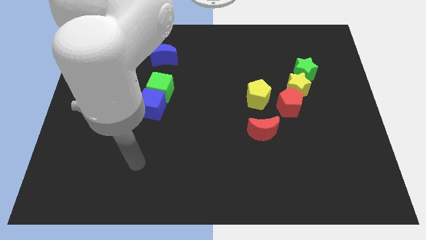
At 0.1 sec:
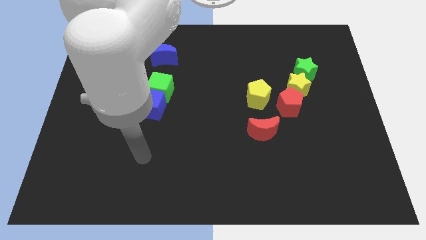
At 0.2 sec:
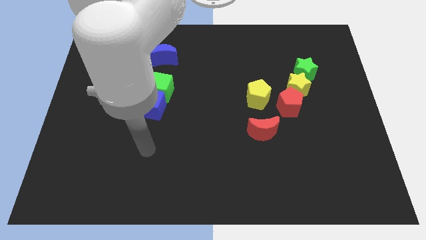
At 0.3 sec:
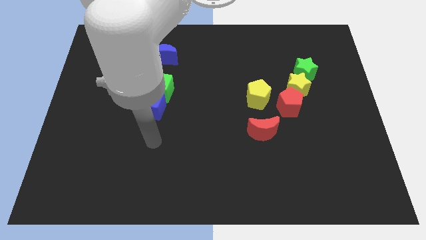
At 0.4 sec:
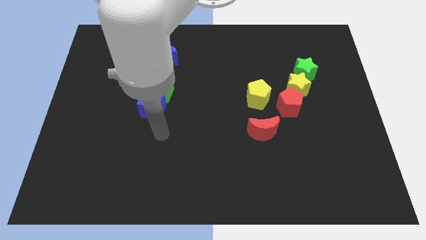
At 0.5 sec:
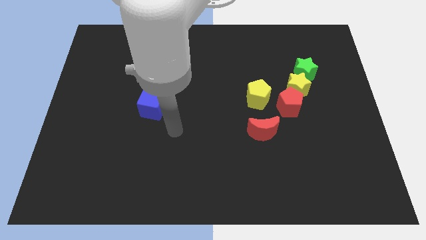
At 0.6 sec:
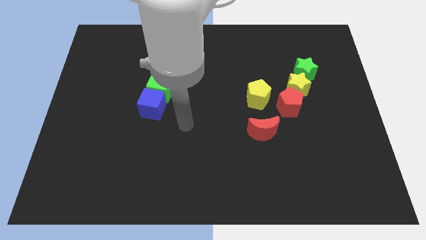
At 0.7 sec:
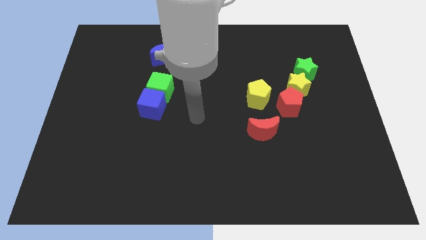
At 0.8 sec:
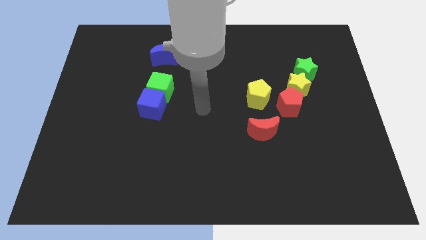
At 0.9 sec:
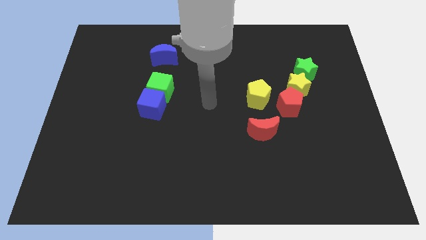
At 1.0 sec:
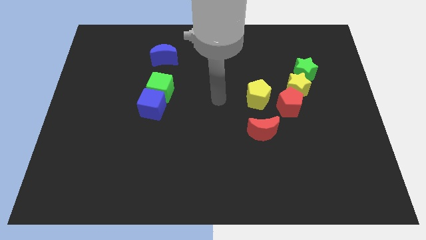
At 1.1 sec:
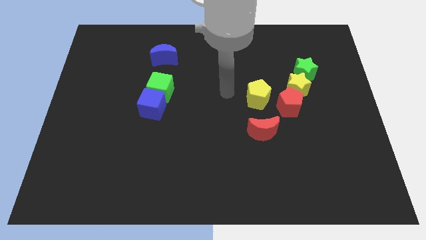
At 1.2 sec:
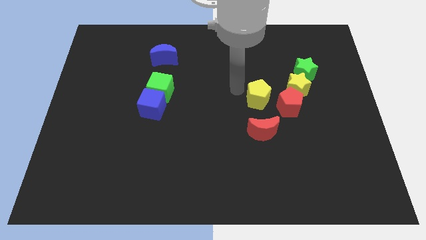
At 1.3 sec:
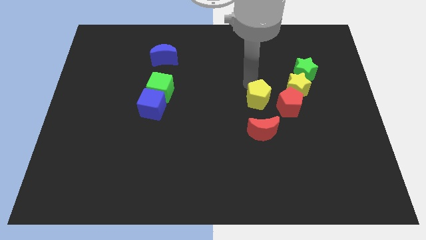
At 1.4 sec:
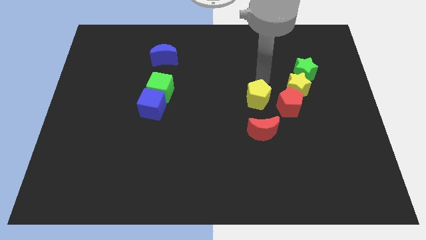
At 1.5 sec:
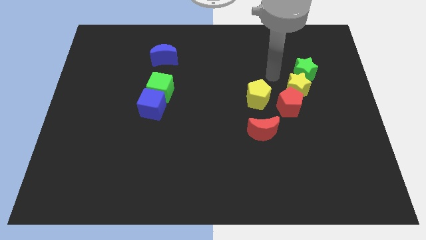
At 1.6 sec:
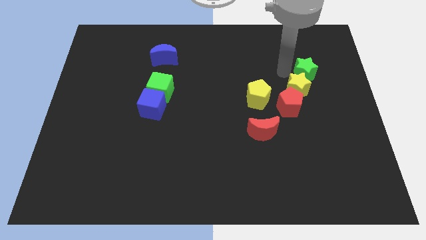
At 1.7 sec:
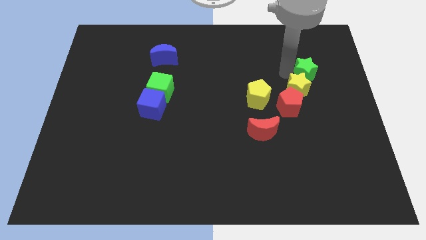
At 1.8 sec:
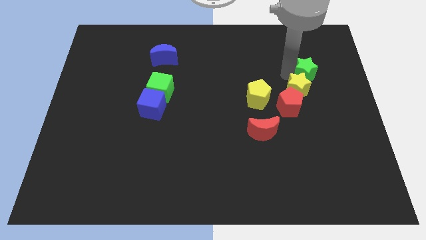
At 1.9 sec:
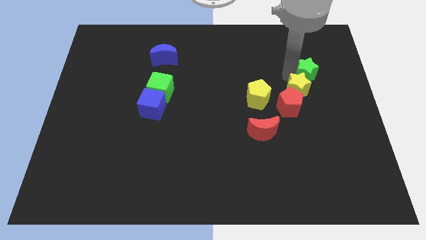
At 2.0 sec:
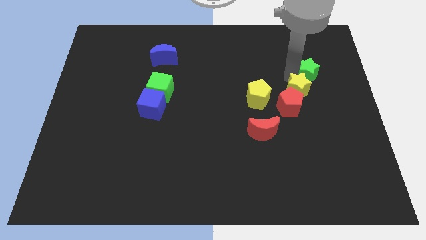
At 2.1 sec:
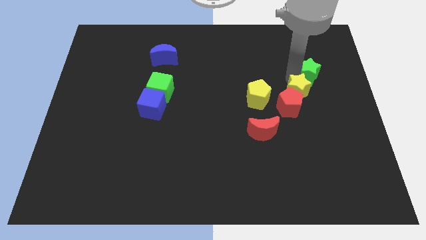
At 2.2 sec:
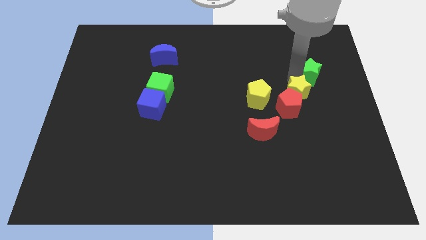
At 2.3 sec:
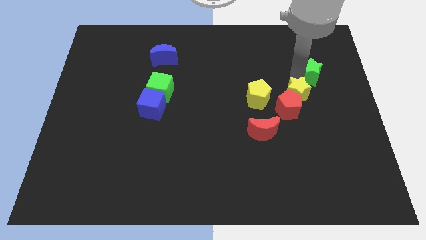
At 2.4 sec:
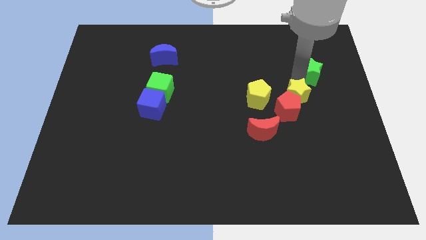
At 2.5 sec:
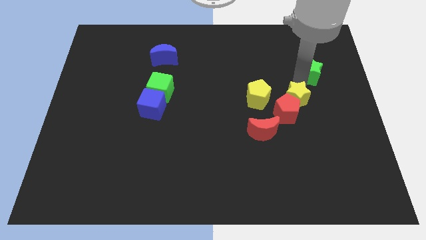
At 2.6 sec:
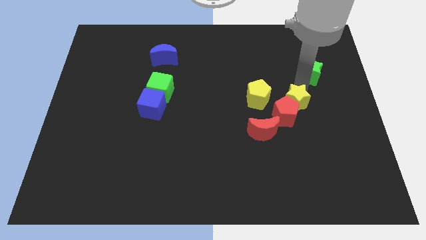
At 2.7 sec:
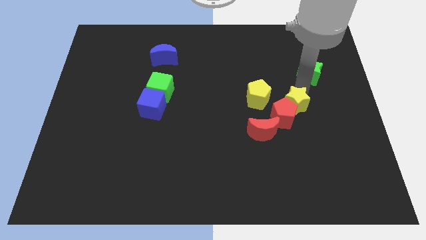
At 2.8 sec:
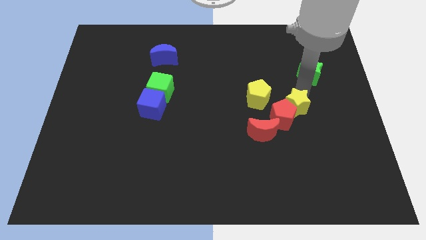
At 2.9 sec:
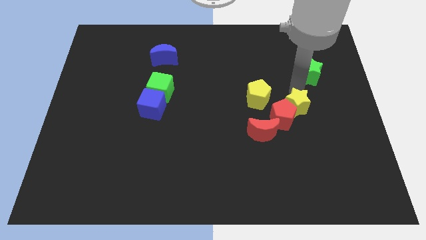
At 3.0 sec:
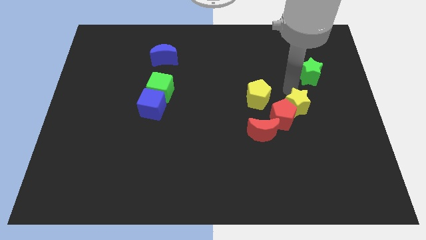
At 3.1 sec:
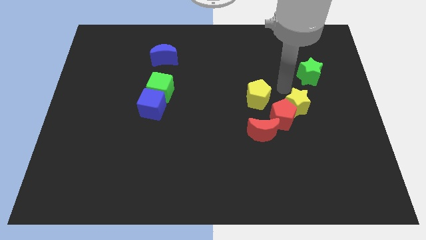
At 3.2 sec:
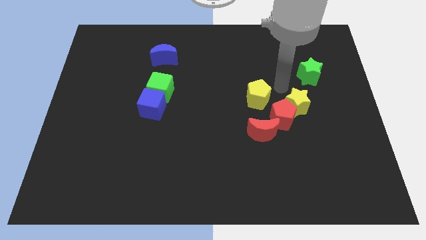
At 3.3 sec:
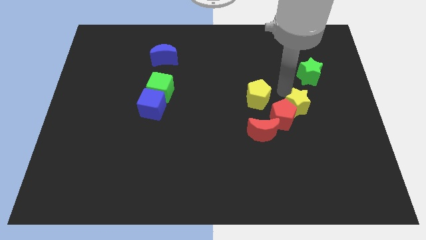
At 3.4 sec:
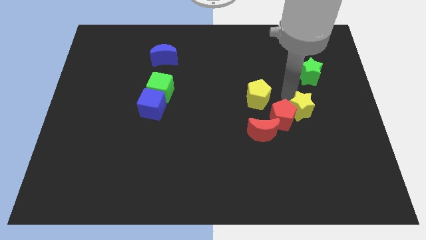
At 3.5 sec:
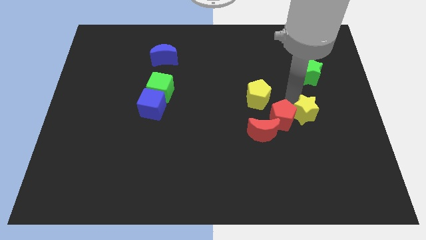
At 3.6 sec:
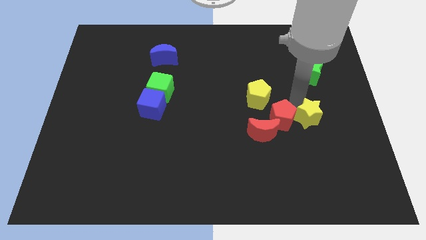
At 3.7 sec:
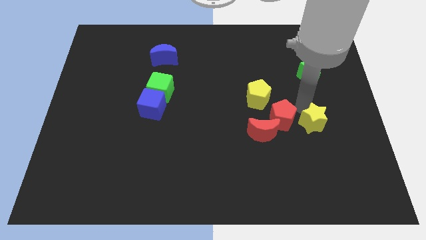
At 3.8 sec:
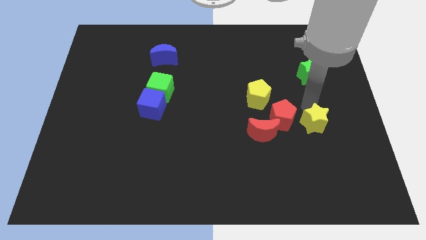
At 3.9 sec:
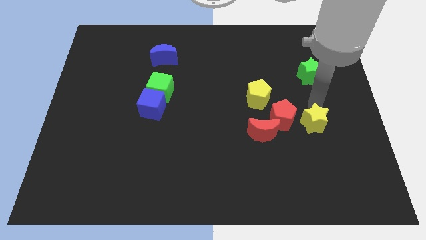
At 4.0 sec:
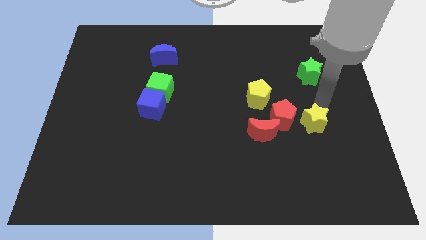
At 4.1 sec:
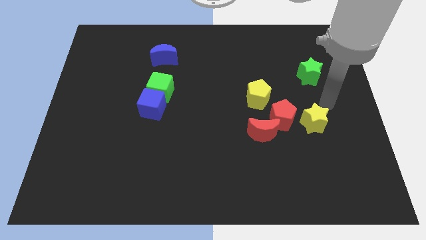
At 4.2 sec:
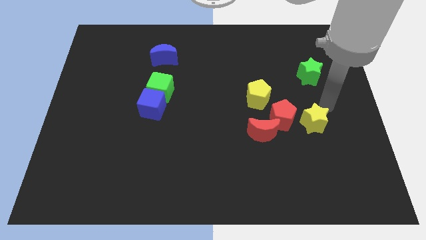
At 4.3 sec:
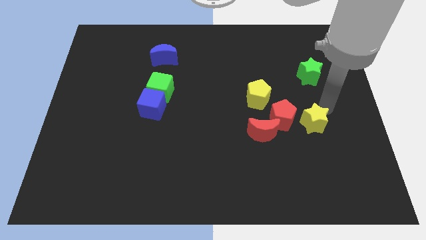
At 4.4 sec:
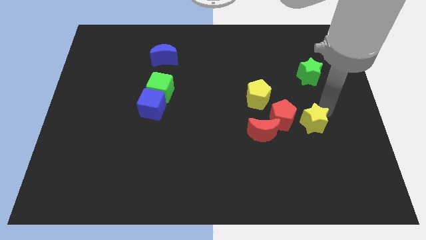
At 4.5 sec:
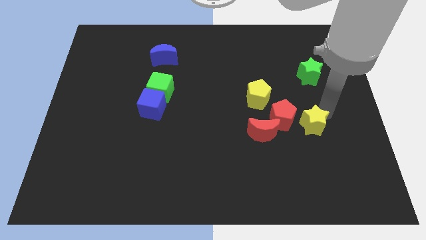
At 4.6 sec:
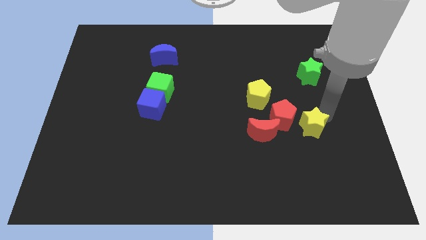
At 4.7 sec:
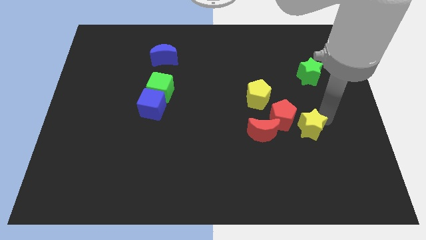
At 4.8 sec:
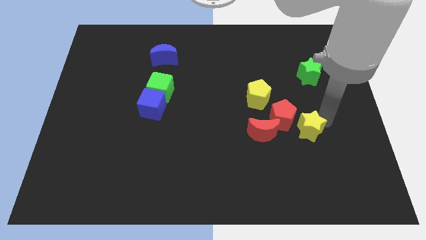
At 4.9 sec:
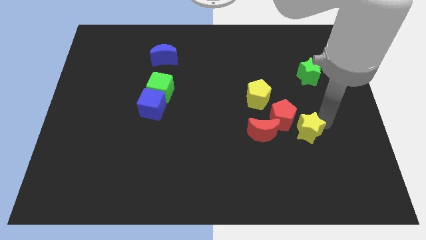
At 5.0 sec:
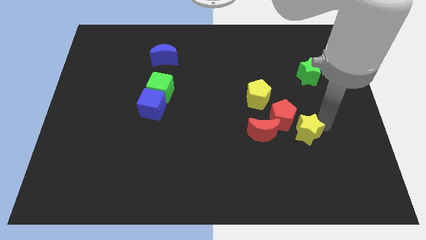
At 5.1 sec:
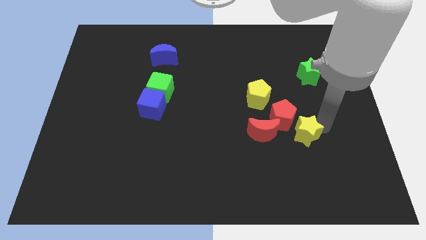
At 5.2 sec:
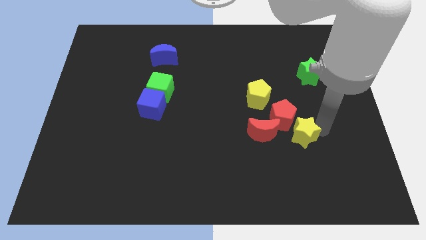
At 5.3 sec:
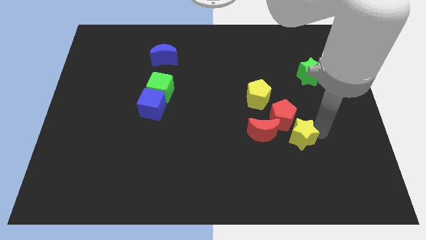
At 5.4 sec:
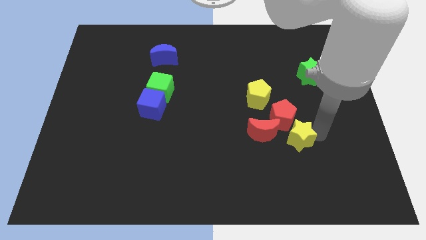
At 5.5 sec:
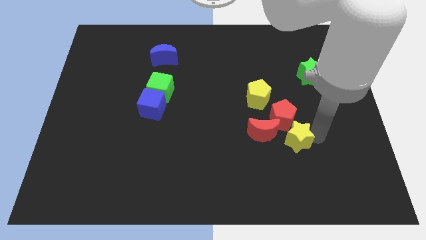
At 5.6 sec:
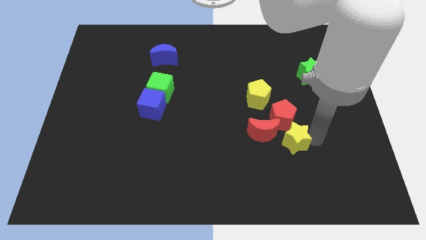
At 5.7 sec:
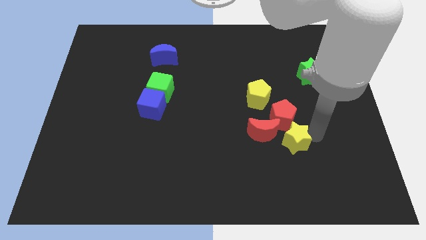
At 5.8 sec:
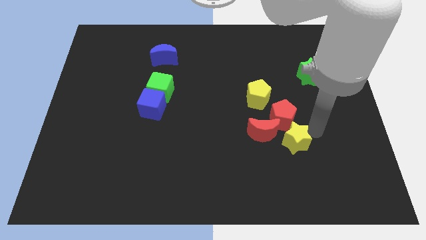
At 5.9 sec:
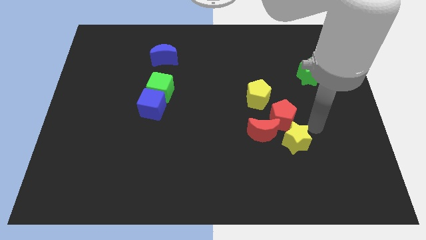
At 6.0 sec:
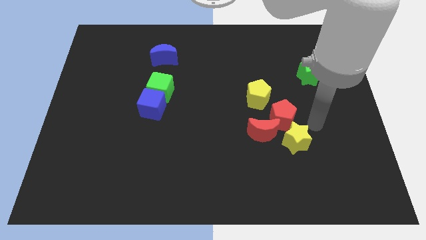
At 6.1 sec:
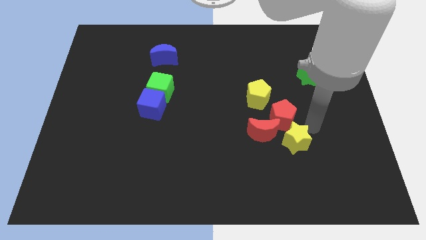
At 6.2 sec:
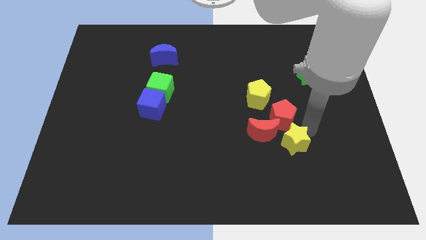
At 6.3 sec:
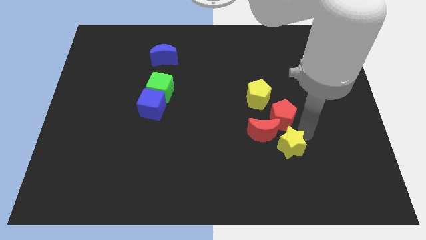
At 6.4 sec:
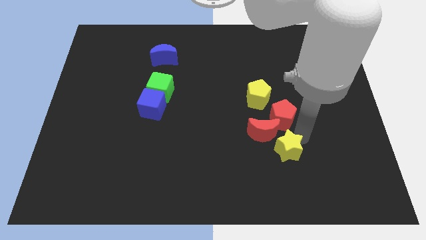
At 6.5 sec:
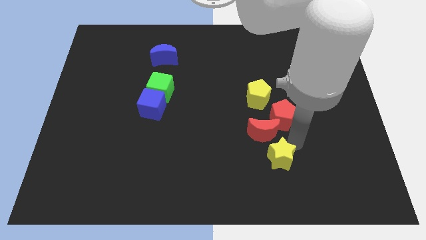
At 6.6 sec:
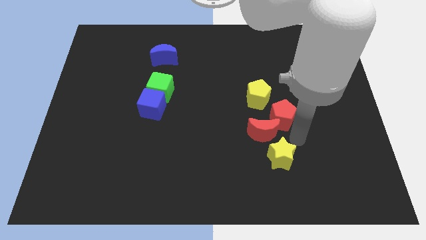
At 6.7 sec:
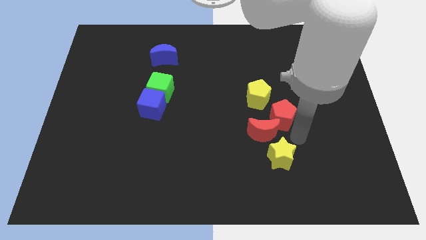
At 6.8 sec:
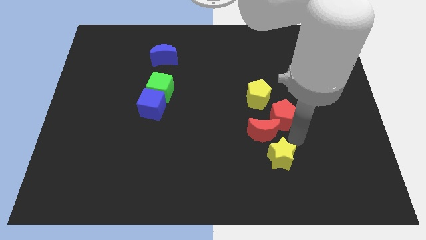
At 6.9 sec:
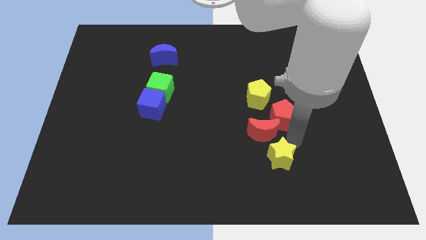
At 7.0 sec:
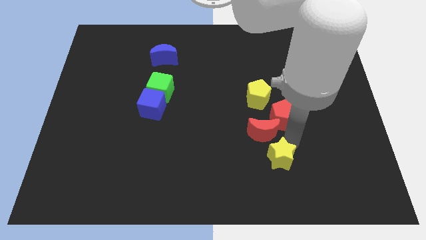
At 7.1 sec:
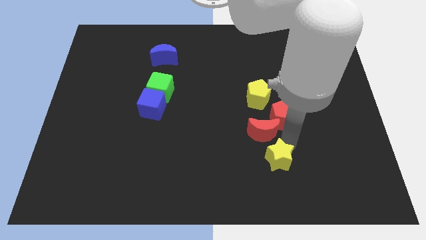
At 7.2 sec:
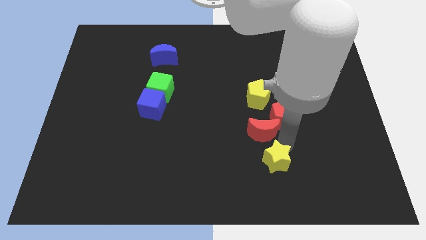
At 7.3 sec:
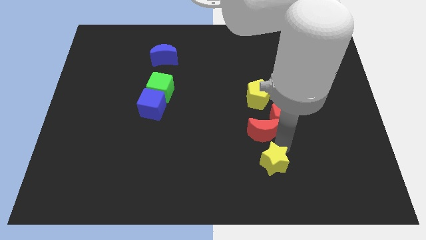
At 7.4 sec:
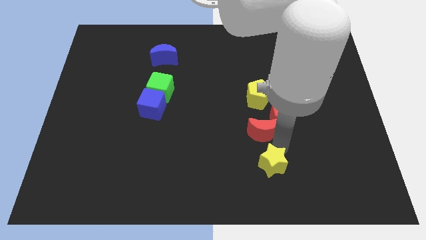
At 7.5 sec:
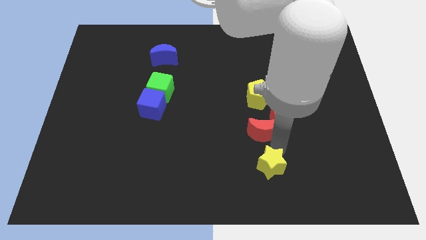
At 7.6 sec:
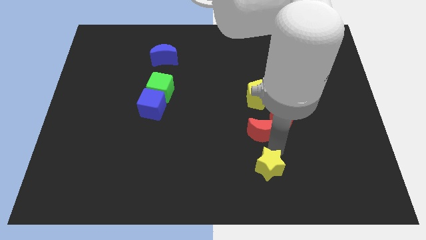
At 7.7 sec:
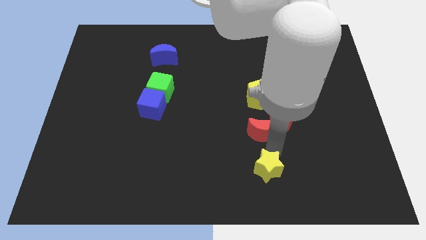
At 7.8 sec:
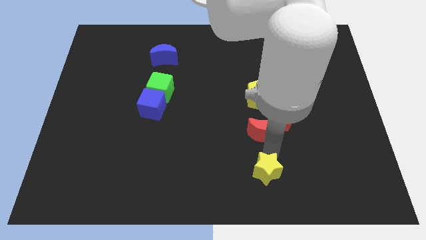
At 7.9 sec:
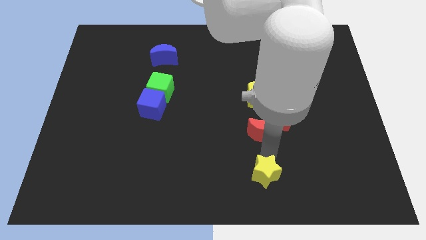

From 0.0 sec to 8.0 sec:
put the yellow star to the bottom side
